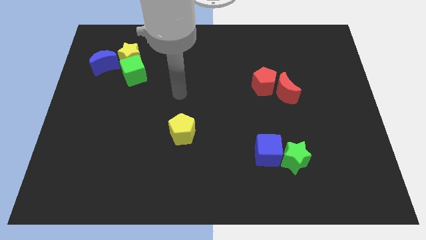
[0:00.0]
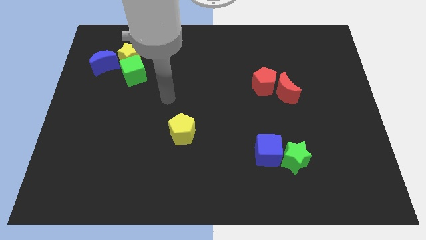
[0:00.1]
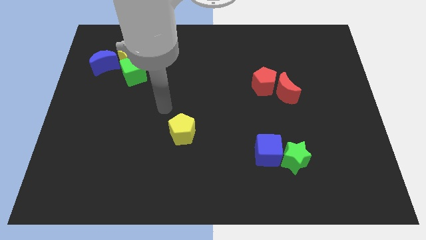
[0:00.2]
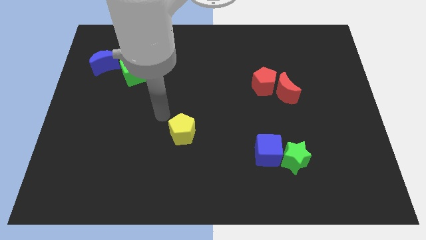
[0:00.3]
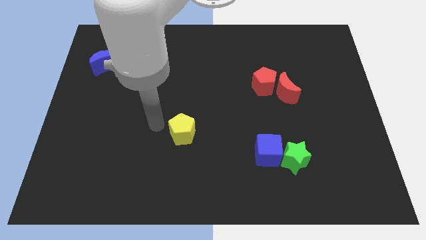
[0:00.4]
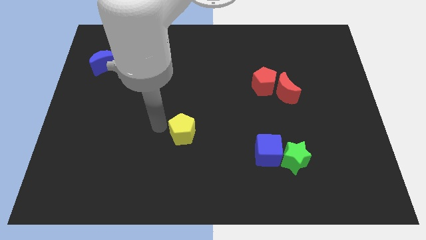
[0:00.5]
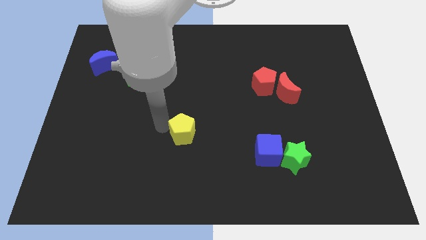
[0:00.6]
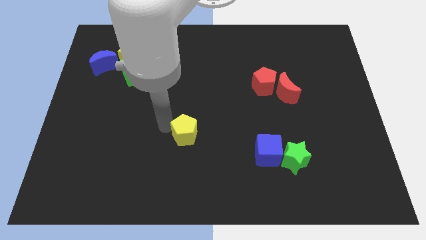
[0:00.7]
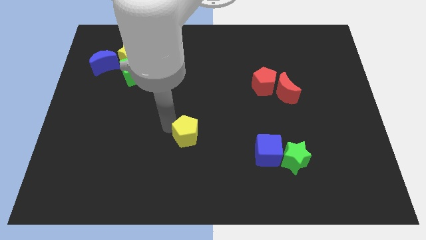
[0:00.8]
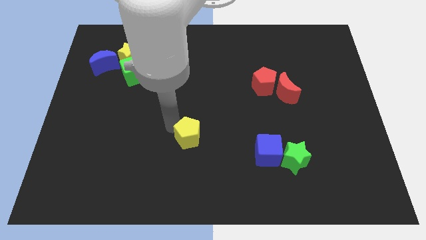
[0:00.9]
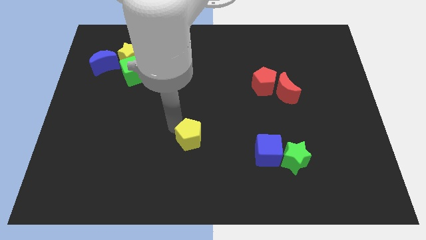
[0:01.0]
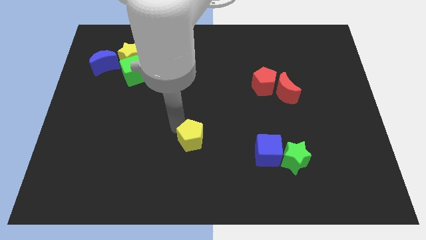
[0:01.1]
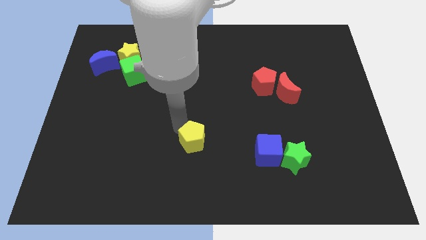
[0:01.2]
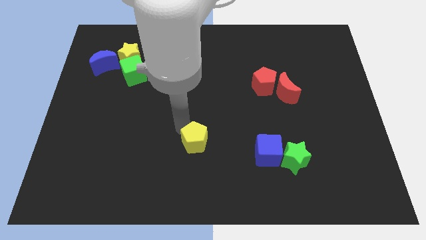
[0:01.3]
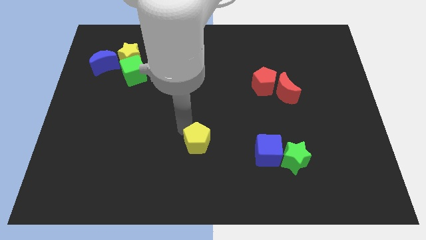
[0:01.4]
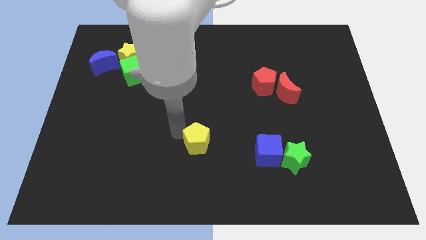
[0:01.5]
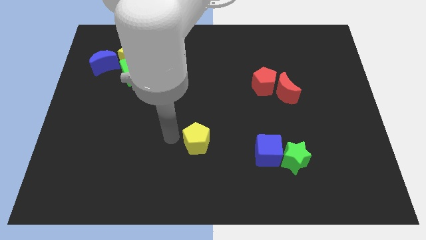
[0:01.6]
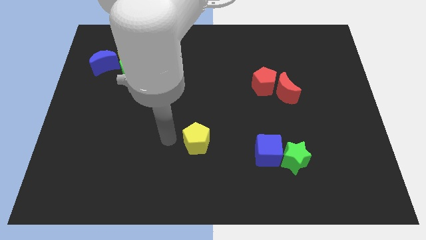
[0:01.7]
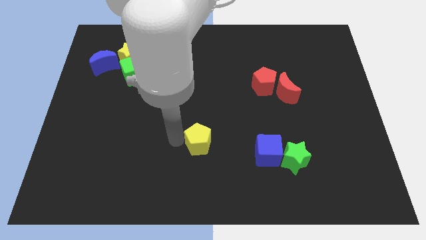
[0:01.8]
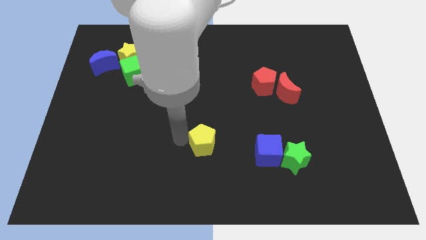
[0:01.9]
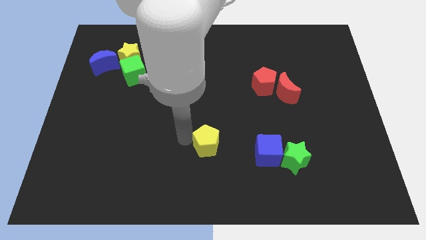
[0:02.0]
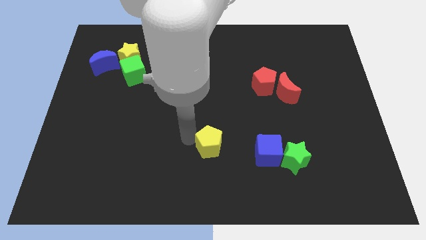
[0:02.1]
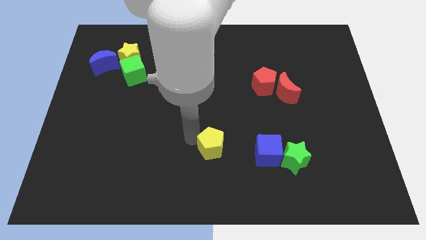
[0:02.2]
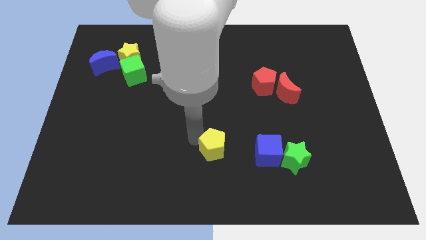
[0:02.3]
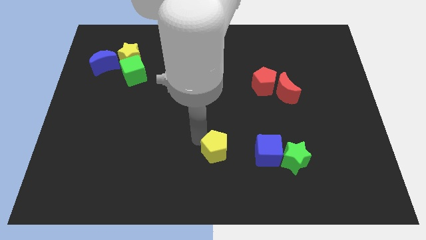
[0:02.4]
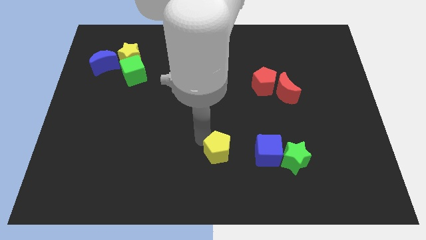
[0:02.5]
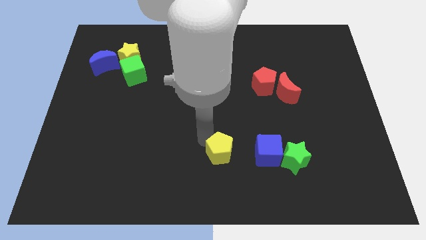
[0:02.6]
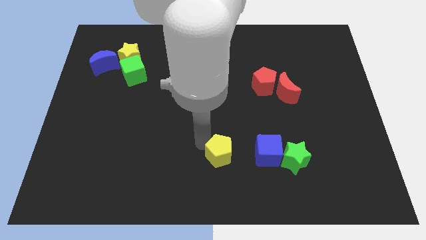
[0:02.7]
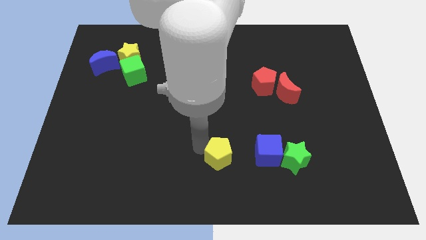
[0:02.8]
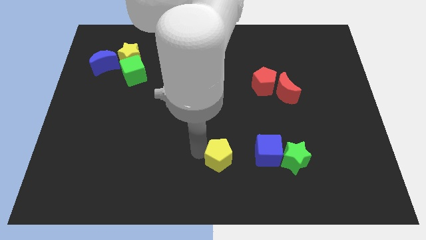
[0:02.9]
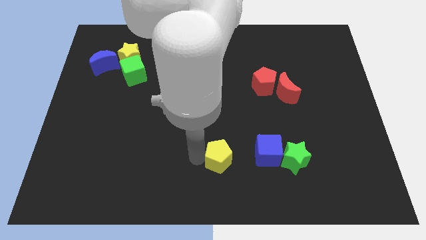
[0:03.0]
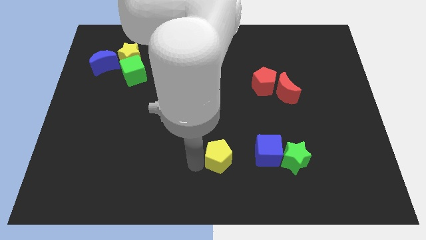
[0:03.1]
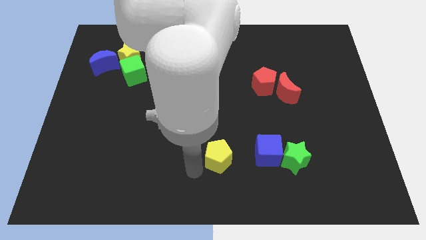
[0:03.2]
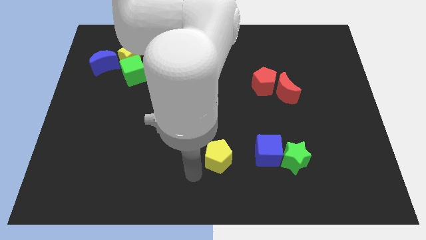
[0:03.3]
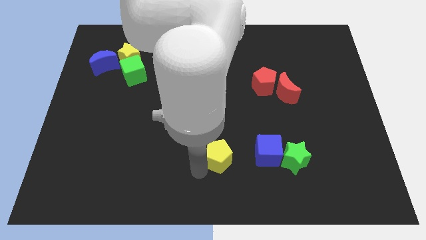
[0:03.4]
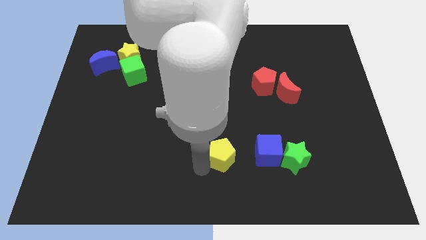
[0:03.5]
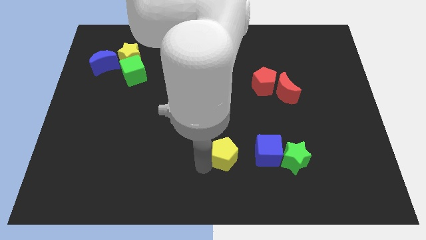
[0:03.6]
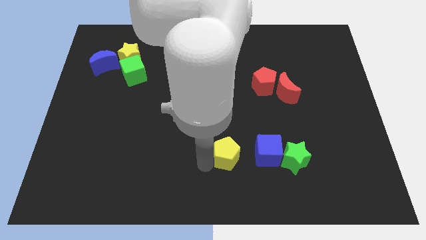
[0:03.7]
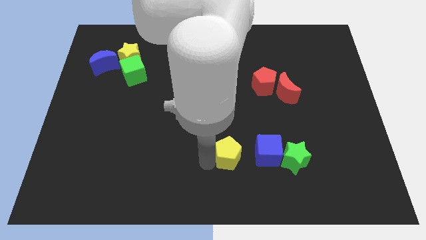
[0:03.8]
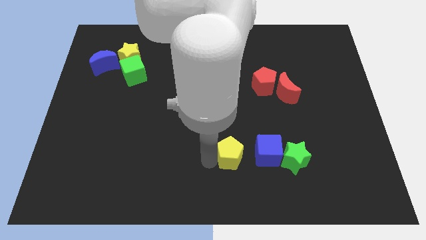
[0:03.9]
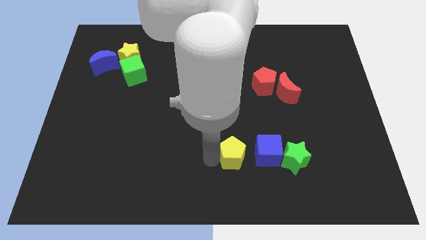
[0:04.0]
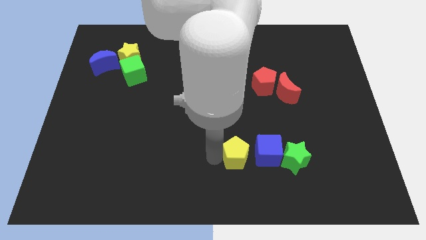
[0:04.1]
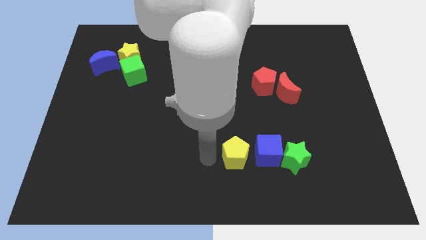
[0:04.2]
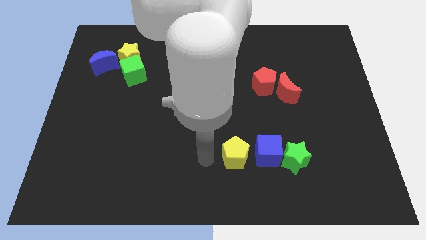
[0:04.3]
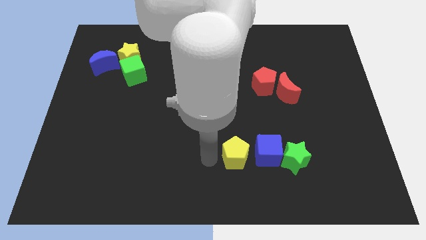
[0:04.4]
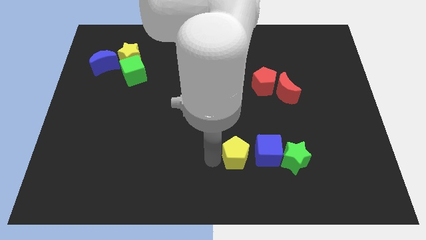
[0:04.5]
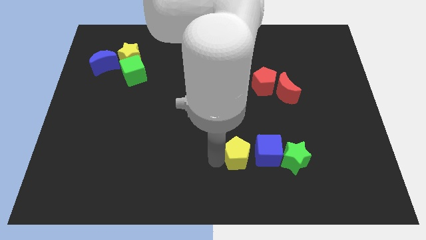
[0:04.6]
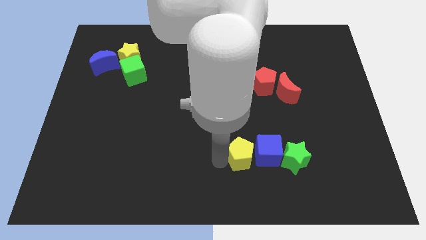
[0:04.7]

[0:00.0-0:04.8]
put the yellow pentagon next to the blue cube

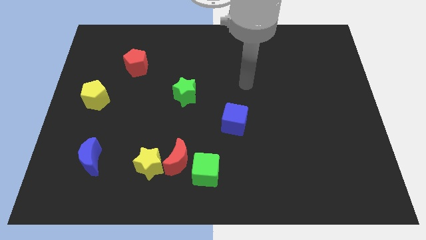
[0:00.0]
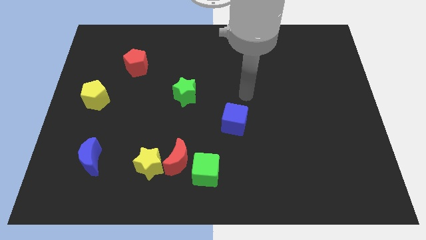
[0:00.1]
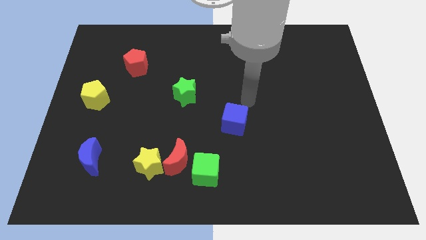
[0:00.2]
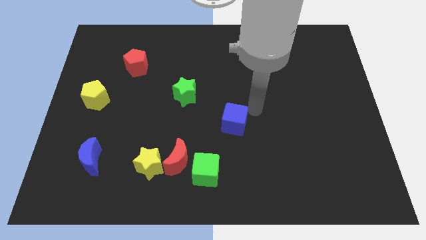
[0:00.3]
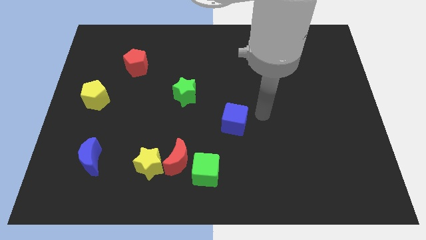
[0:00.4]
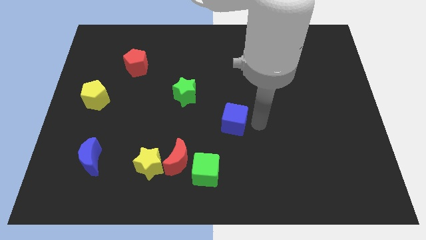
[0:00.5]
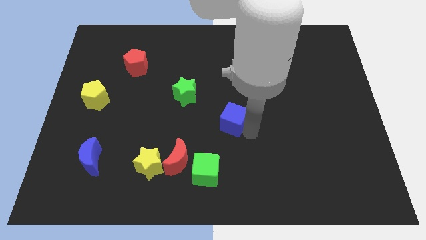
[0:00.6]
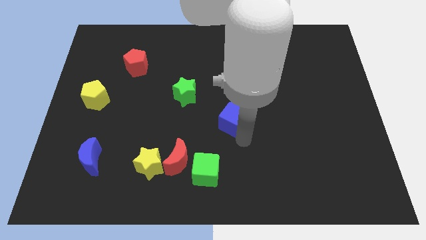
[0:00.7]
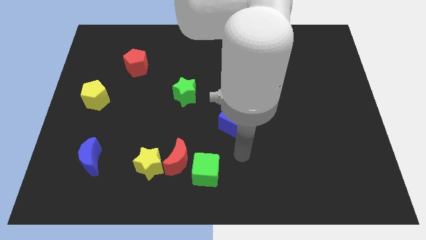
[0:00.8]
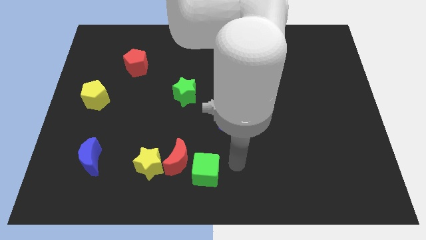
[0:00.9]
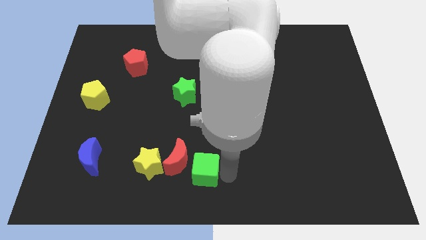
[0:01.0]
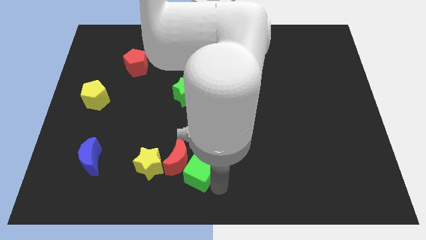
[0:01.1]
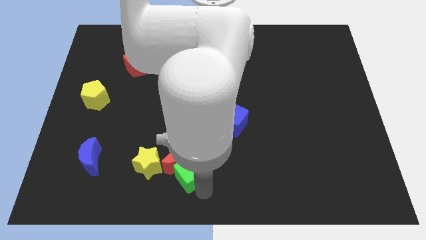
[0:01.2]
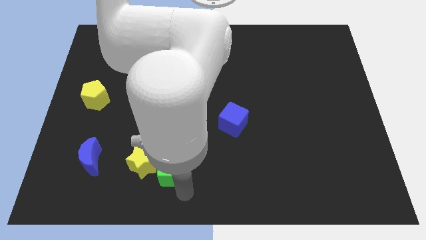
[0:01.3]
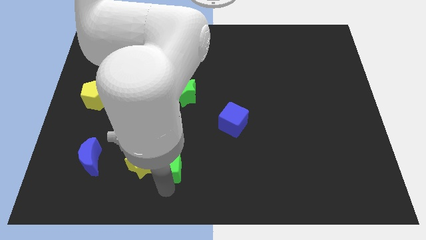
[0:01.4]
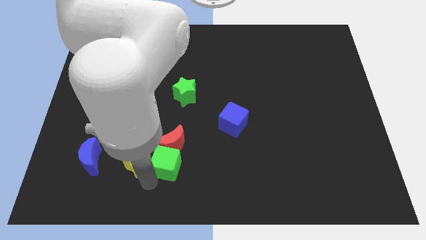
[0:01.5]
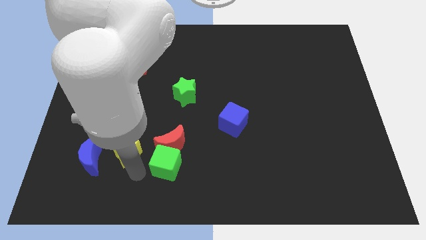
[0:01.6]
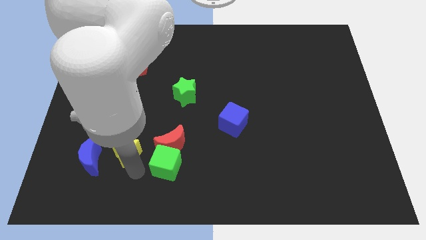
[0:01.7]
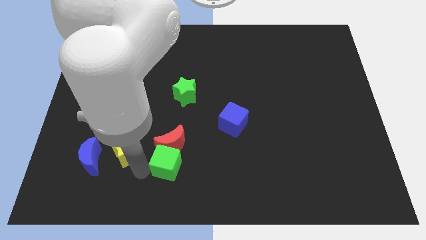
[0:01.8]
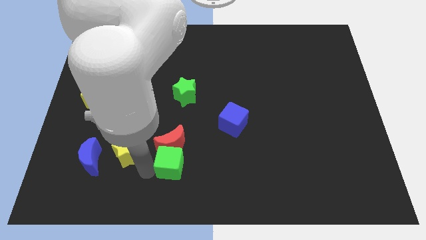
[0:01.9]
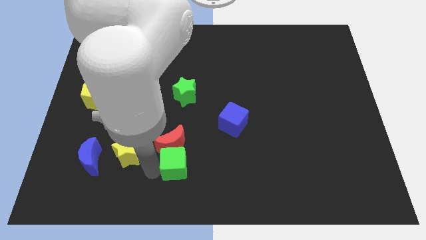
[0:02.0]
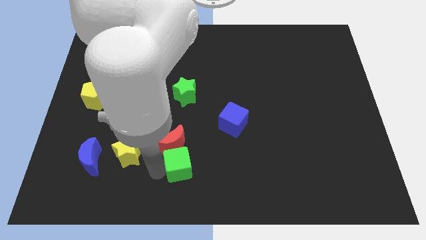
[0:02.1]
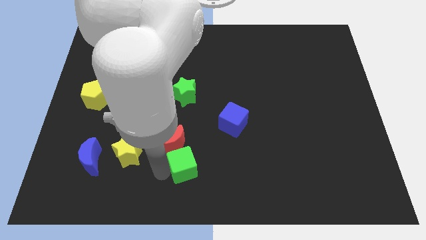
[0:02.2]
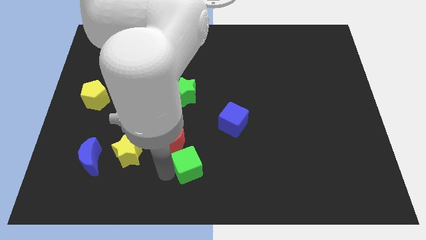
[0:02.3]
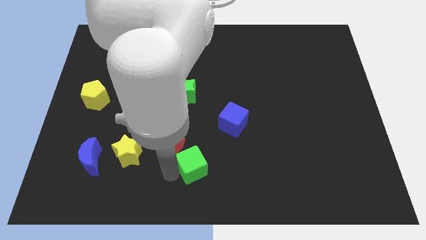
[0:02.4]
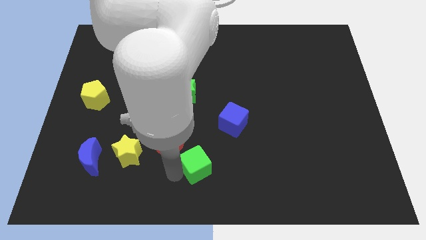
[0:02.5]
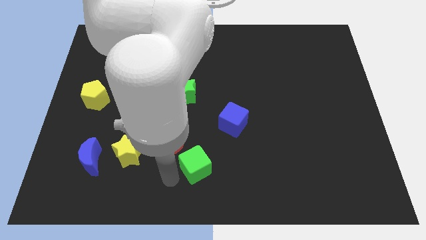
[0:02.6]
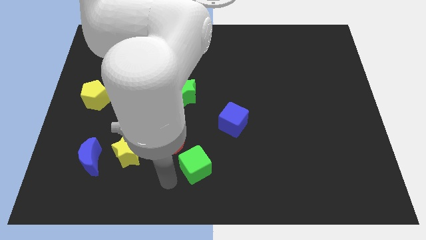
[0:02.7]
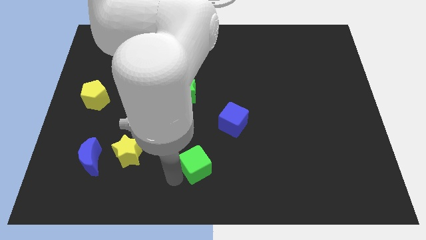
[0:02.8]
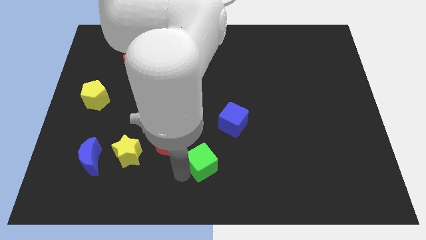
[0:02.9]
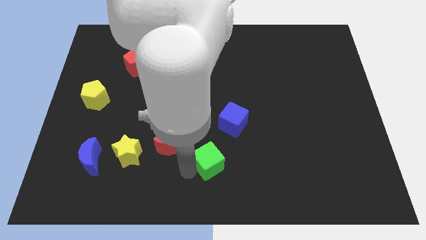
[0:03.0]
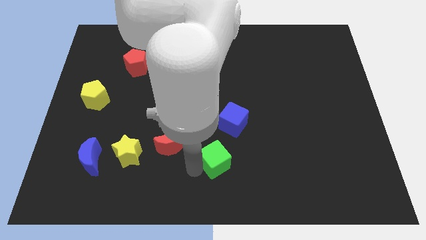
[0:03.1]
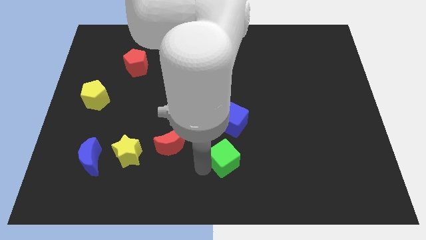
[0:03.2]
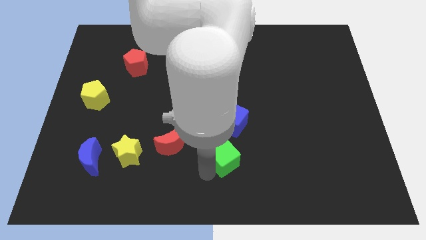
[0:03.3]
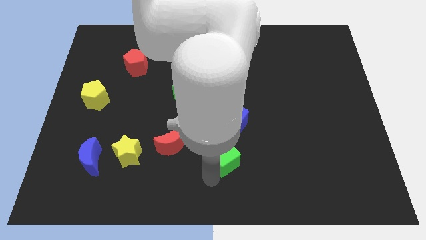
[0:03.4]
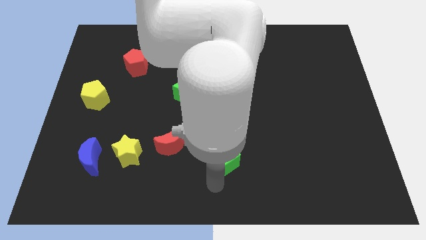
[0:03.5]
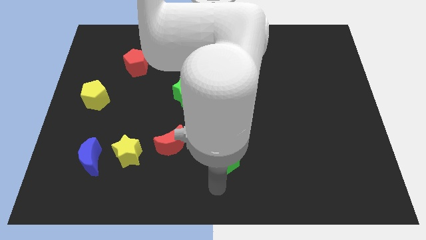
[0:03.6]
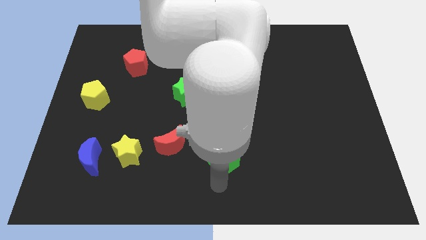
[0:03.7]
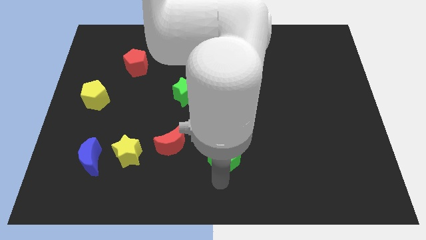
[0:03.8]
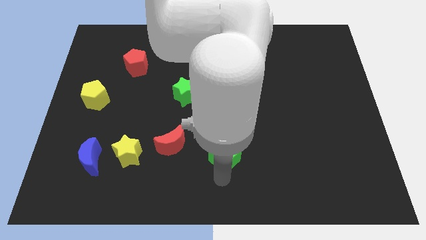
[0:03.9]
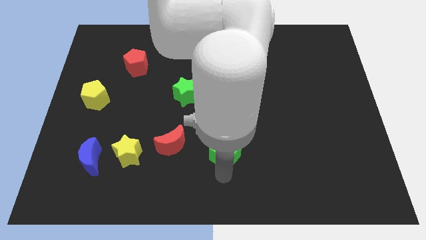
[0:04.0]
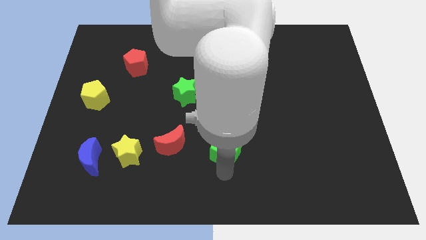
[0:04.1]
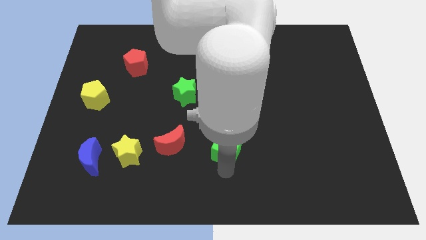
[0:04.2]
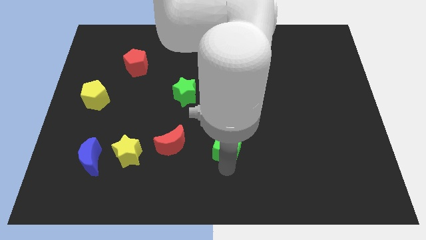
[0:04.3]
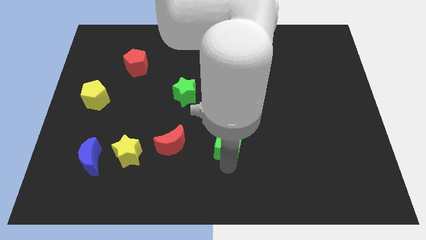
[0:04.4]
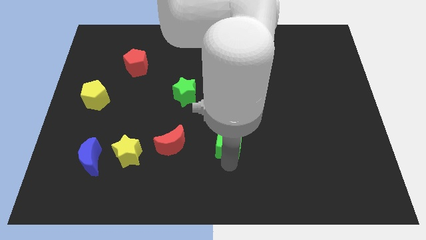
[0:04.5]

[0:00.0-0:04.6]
slide the green cube close to the blue cube
